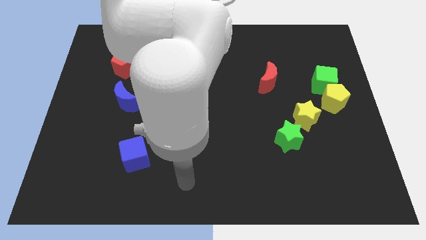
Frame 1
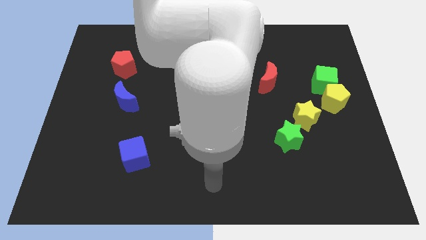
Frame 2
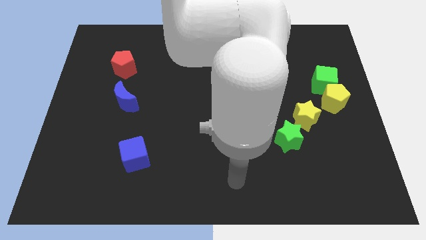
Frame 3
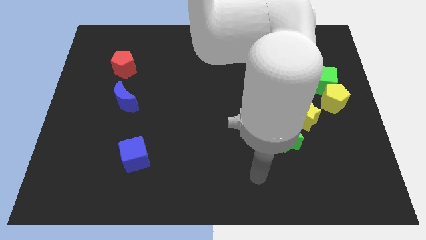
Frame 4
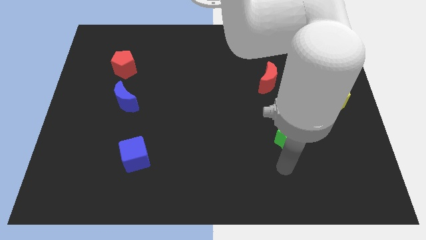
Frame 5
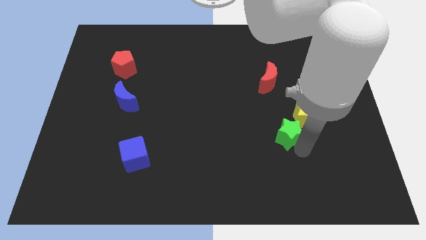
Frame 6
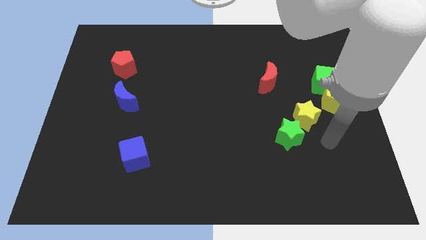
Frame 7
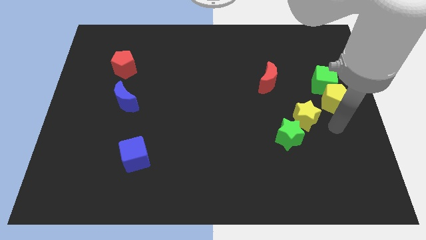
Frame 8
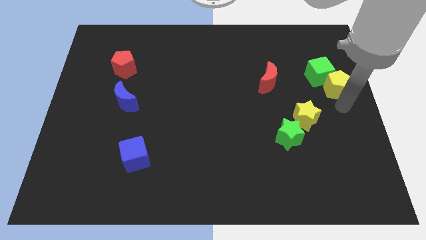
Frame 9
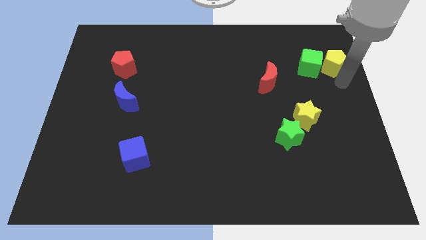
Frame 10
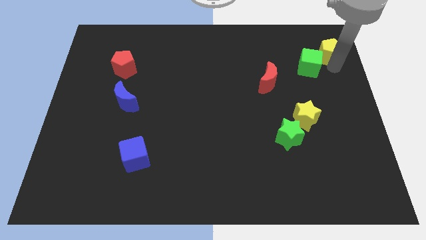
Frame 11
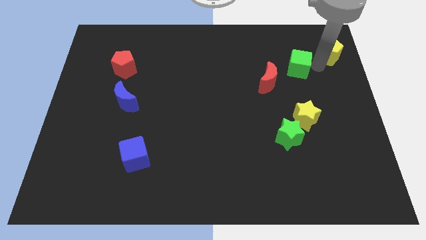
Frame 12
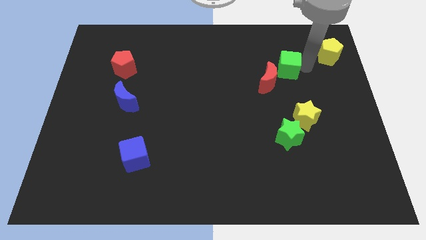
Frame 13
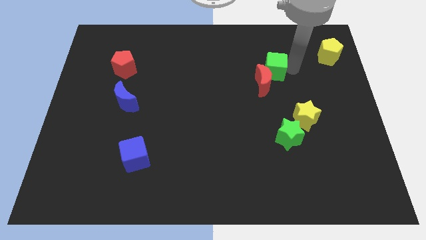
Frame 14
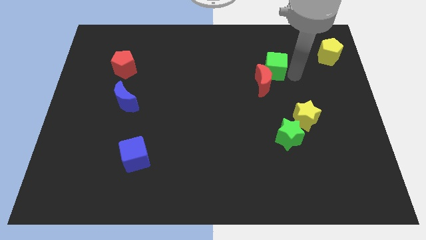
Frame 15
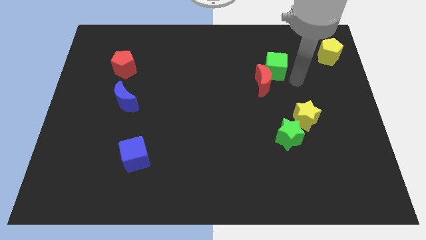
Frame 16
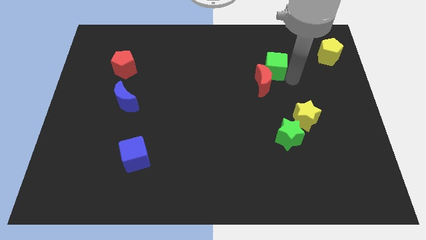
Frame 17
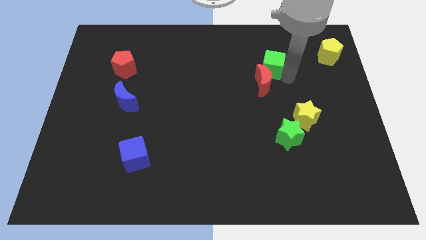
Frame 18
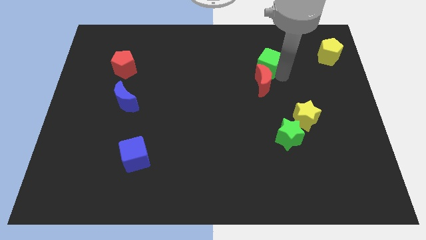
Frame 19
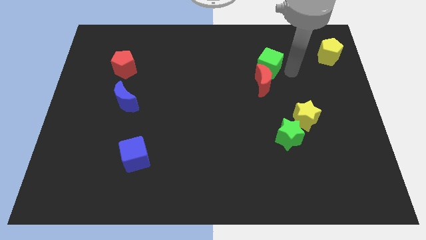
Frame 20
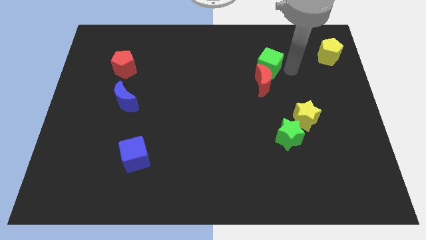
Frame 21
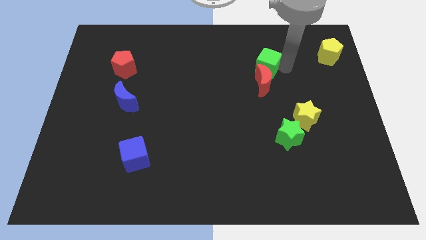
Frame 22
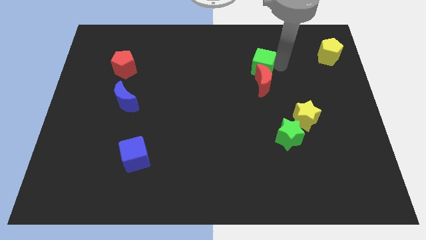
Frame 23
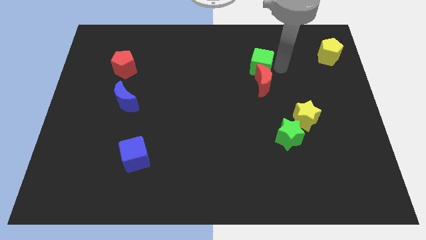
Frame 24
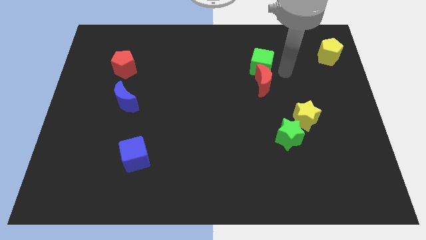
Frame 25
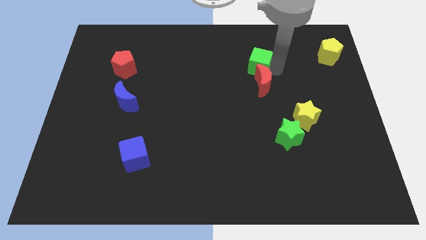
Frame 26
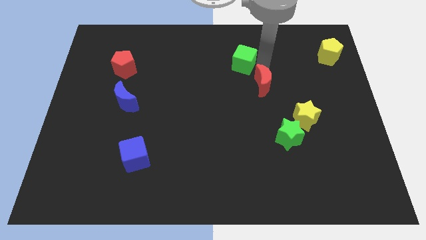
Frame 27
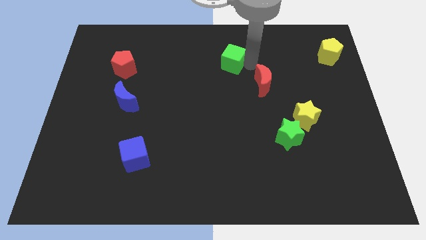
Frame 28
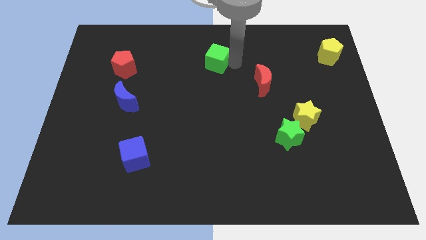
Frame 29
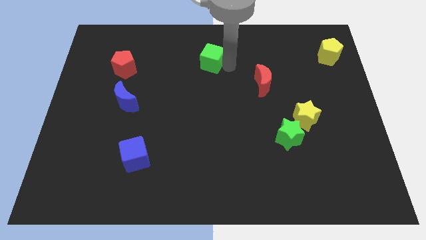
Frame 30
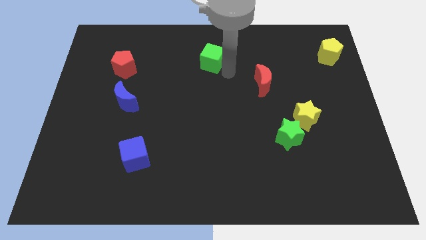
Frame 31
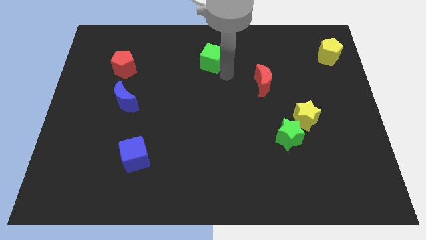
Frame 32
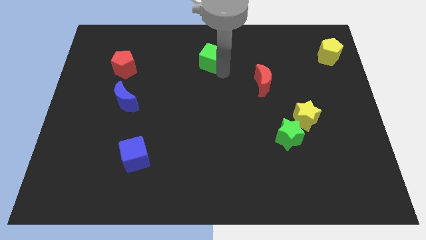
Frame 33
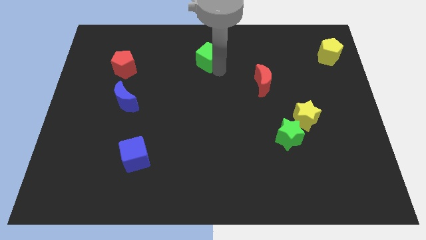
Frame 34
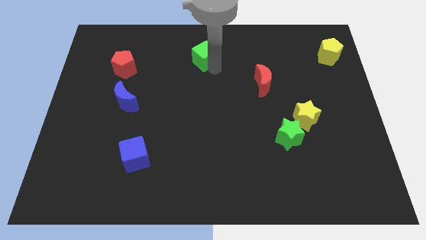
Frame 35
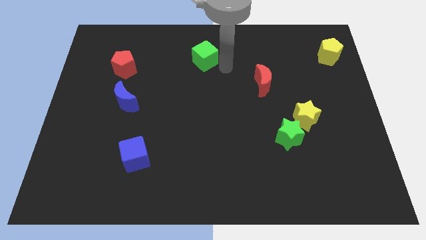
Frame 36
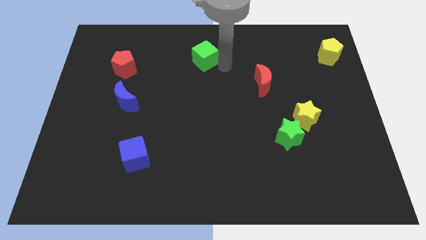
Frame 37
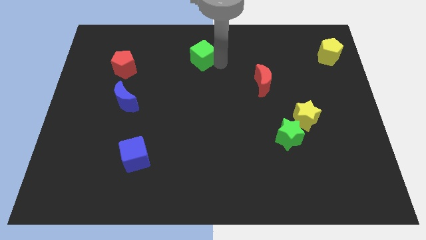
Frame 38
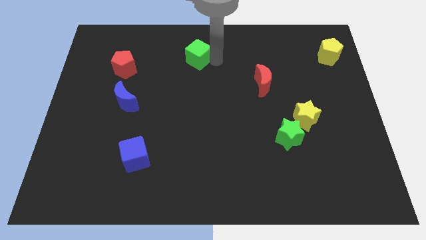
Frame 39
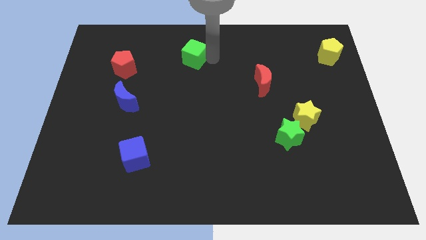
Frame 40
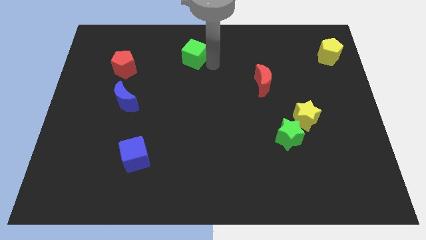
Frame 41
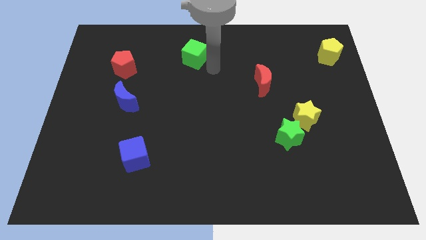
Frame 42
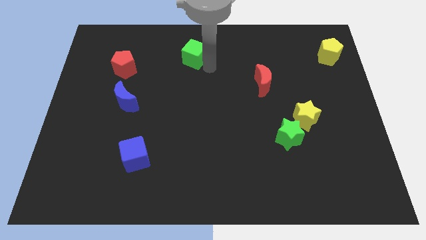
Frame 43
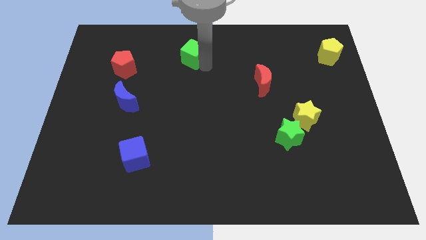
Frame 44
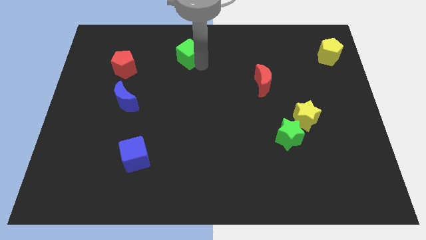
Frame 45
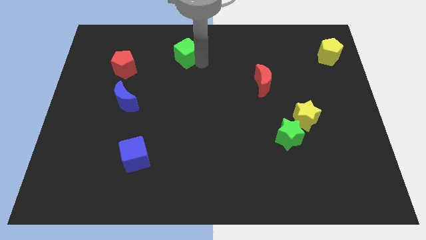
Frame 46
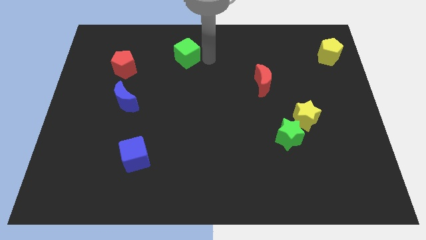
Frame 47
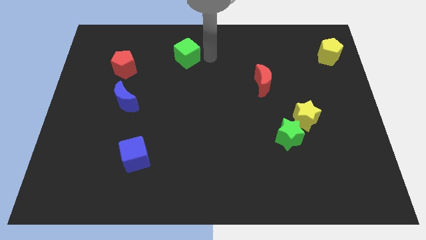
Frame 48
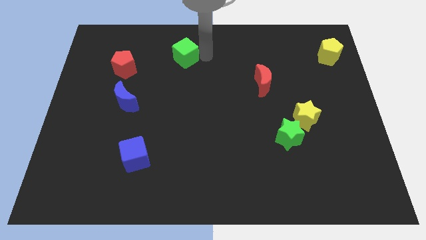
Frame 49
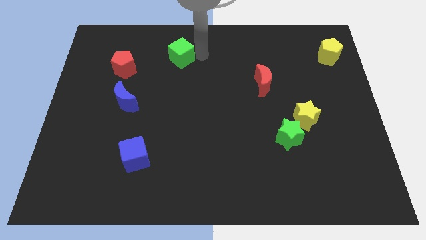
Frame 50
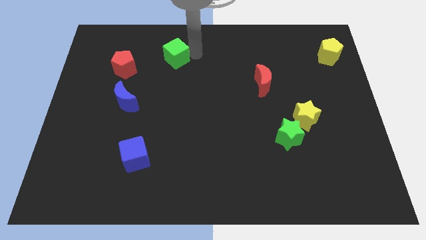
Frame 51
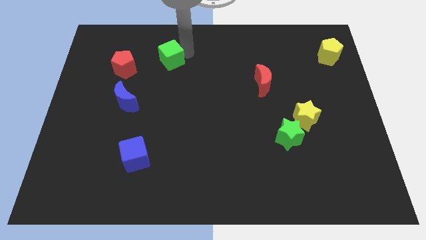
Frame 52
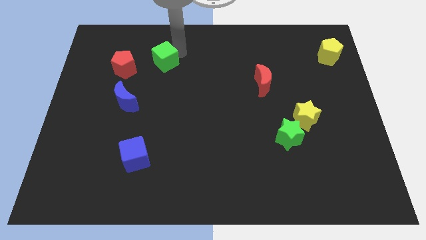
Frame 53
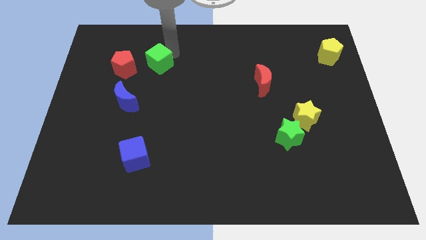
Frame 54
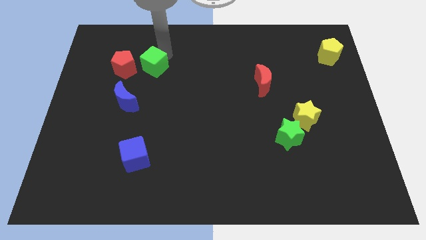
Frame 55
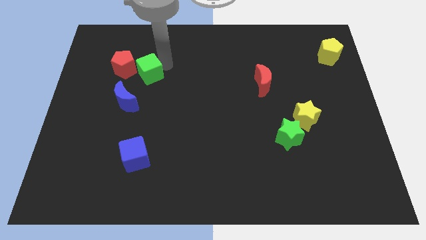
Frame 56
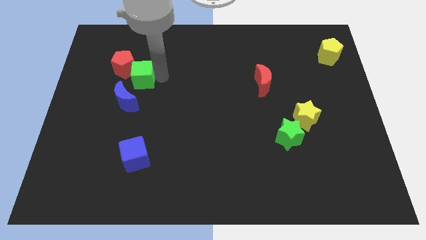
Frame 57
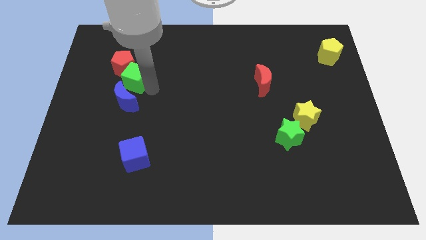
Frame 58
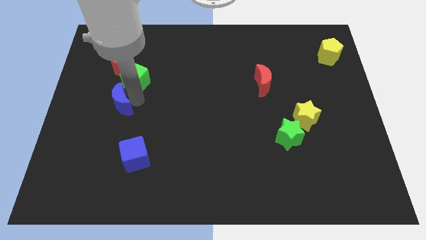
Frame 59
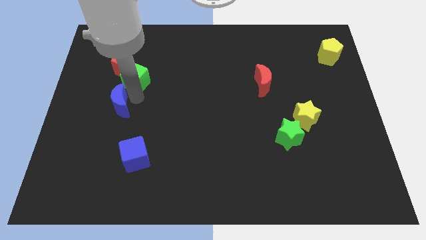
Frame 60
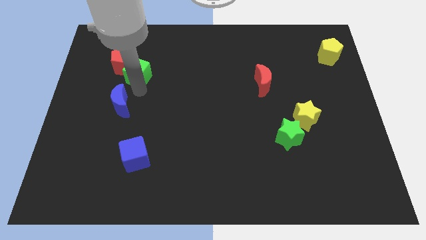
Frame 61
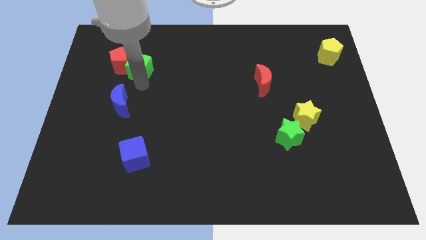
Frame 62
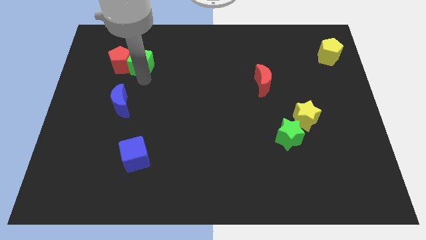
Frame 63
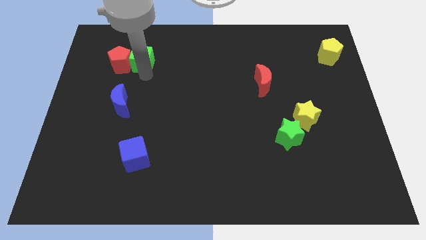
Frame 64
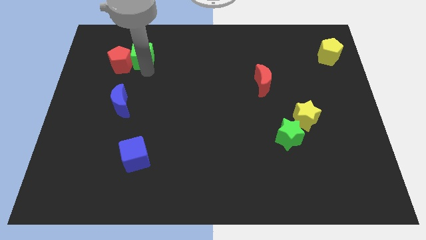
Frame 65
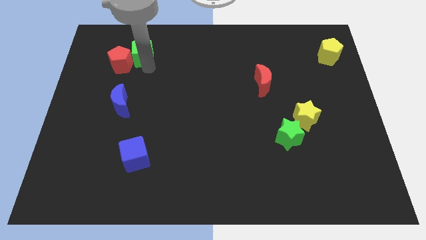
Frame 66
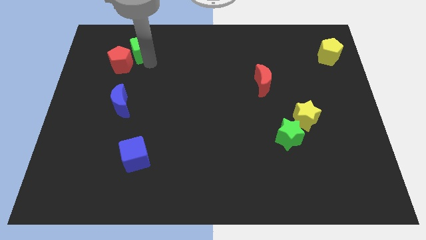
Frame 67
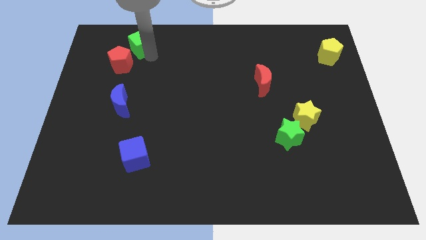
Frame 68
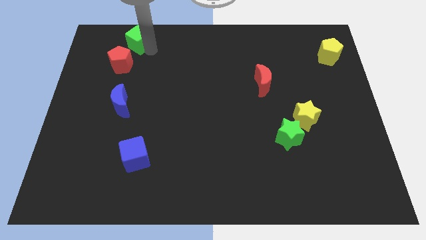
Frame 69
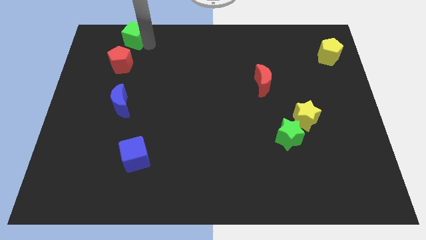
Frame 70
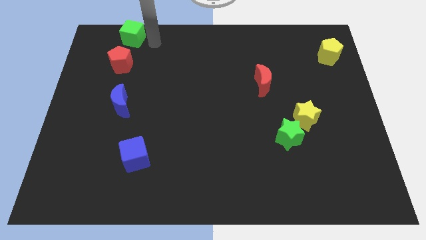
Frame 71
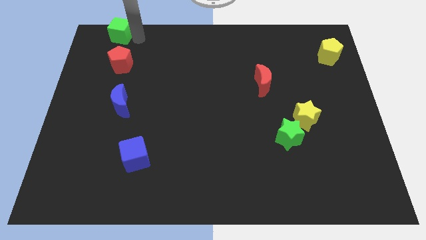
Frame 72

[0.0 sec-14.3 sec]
slide the green cube to the top left

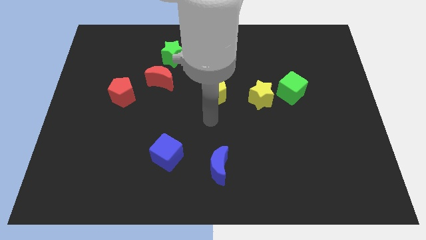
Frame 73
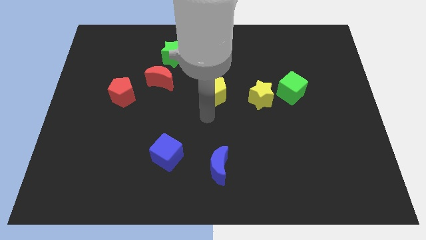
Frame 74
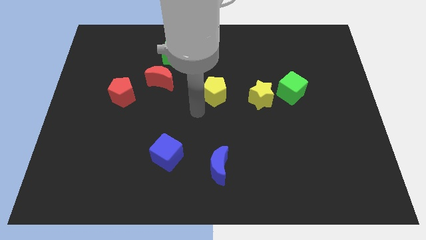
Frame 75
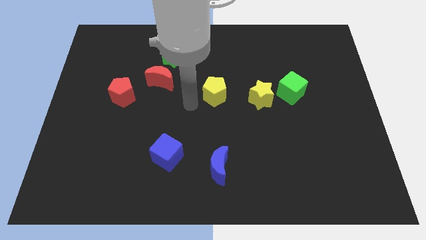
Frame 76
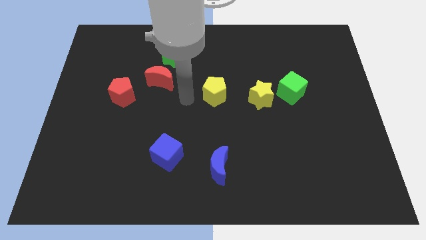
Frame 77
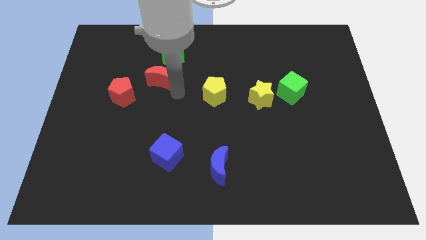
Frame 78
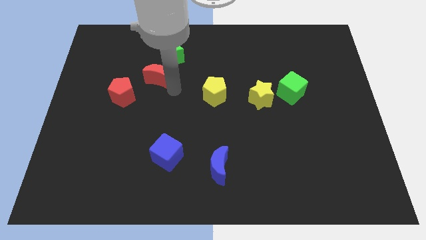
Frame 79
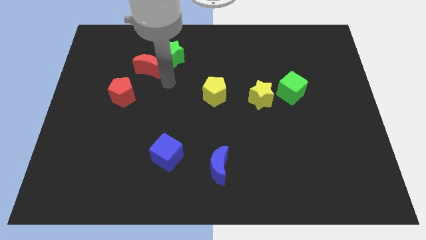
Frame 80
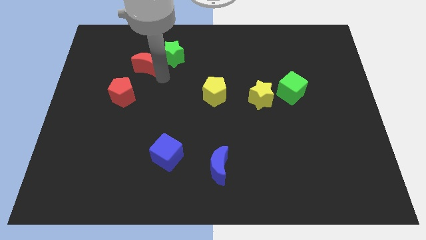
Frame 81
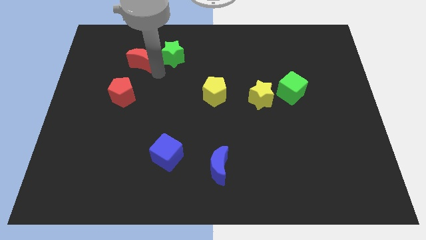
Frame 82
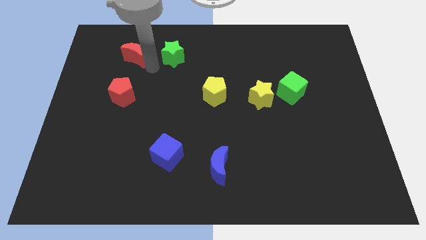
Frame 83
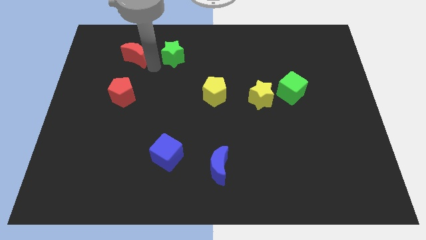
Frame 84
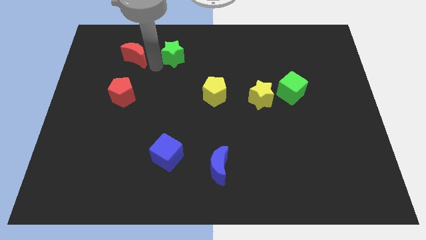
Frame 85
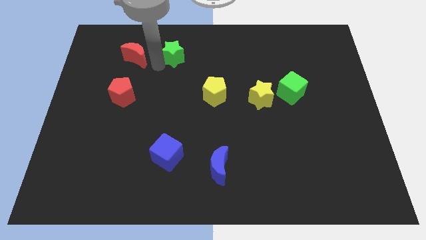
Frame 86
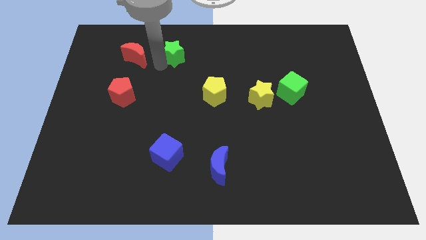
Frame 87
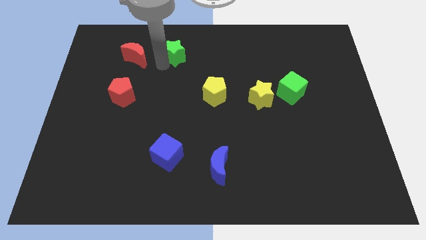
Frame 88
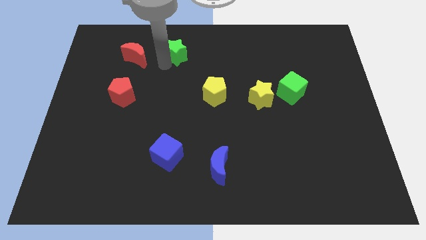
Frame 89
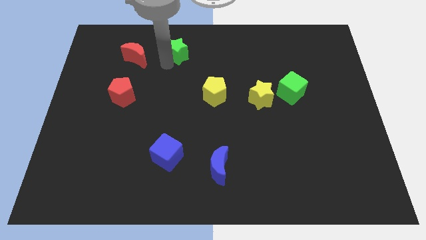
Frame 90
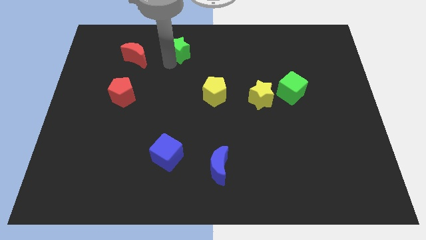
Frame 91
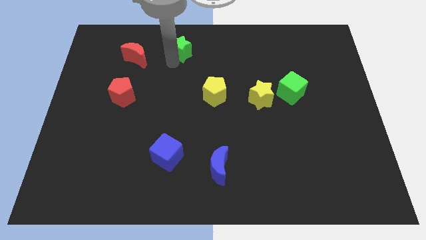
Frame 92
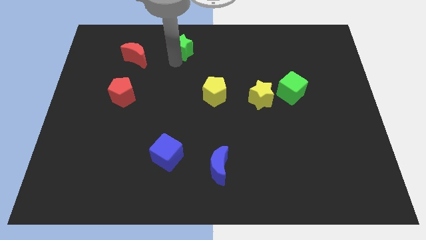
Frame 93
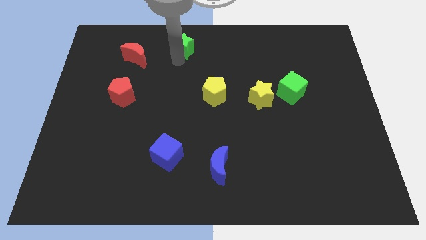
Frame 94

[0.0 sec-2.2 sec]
push the green star to the towards your base
